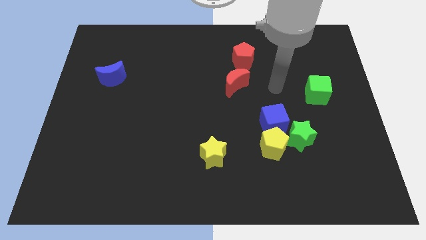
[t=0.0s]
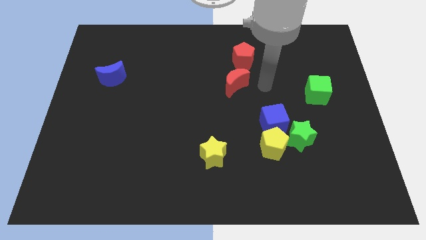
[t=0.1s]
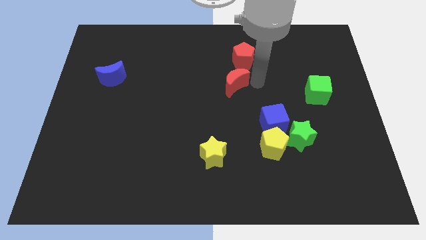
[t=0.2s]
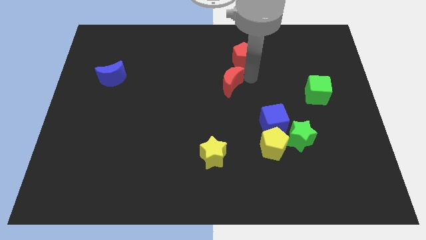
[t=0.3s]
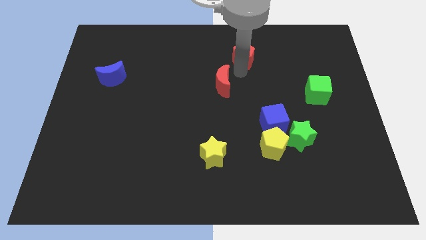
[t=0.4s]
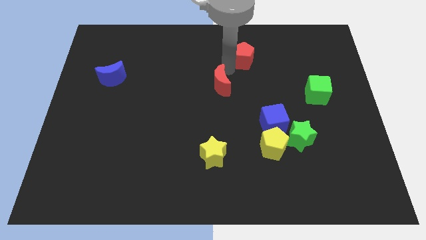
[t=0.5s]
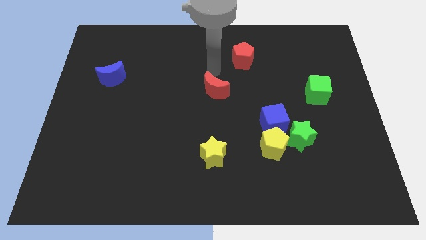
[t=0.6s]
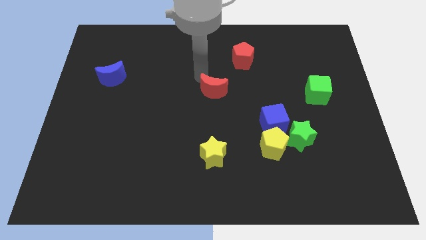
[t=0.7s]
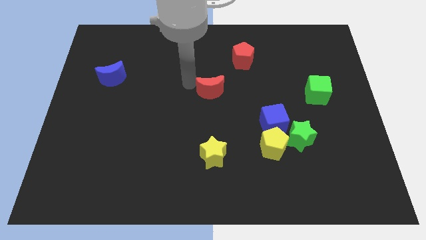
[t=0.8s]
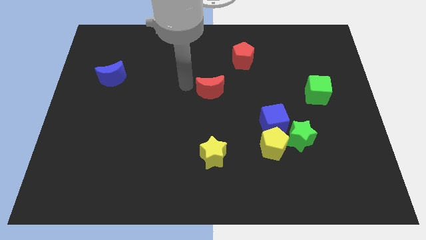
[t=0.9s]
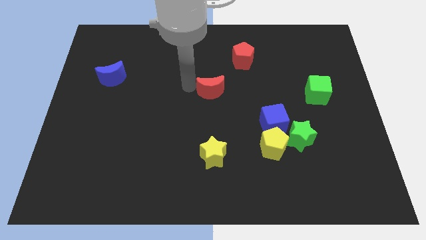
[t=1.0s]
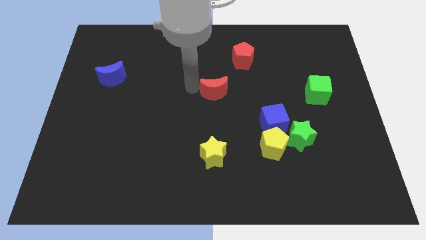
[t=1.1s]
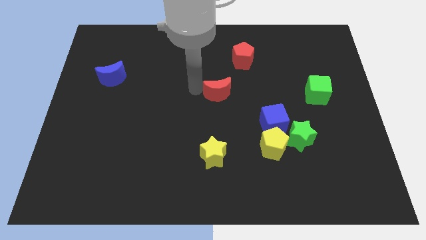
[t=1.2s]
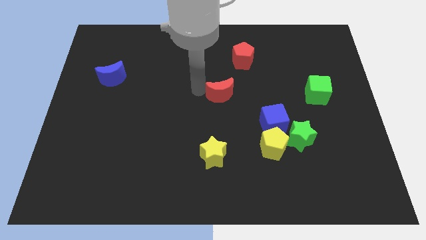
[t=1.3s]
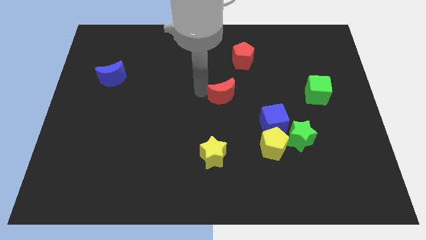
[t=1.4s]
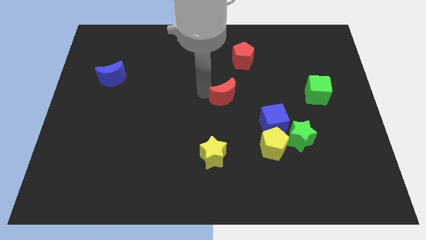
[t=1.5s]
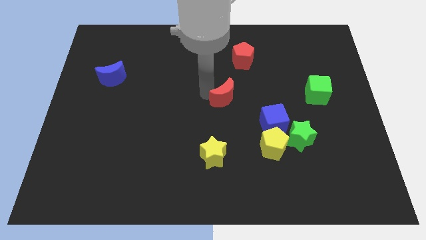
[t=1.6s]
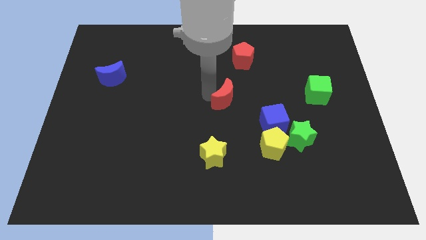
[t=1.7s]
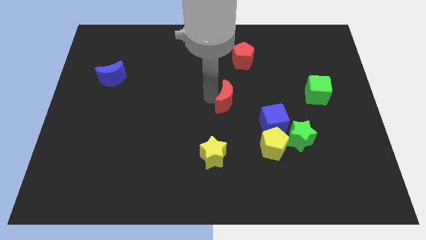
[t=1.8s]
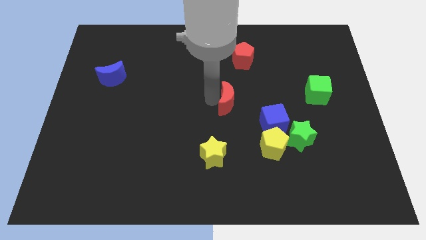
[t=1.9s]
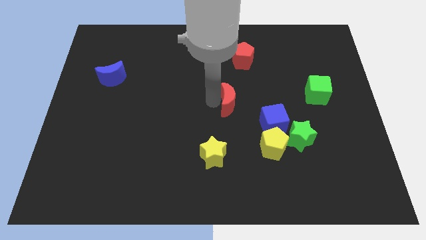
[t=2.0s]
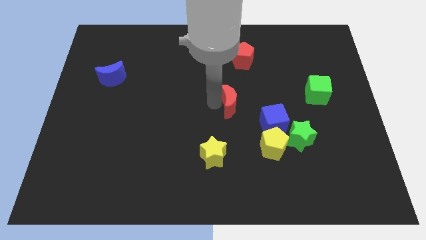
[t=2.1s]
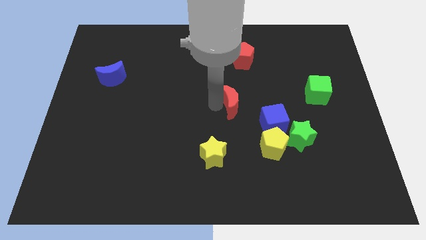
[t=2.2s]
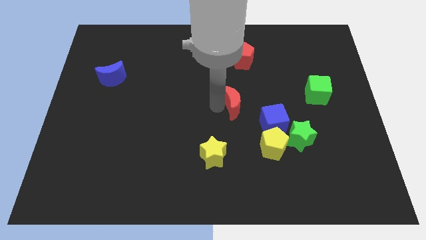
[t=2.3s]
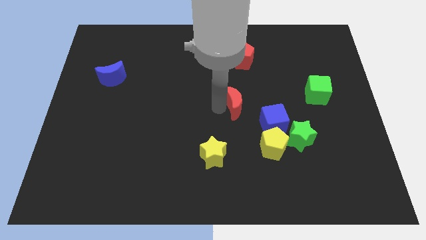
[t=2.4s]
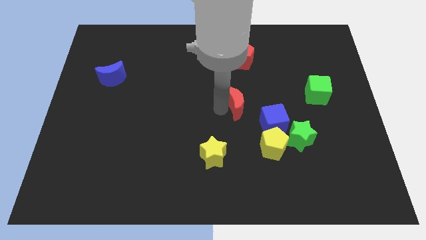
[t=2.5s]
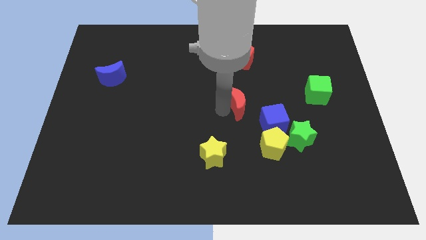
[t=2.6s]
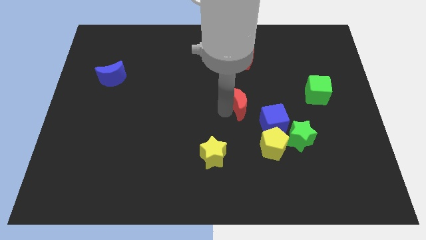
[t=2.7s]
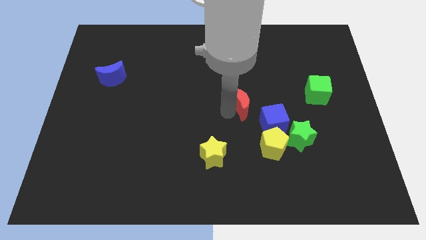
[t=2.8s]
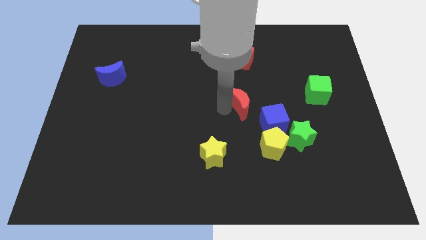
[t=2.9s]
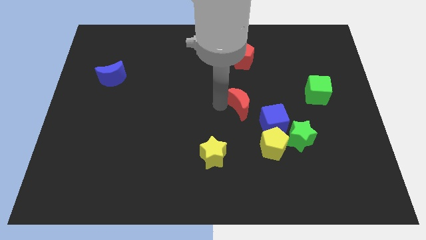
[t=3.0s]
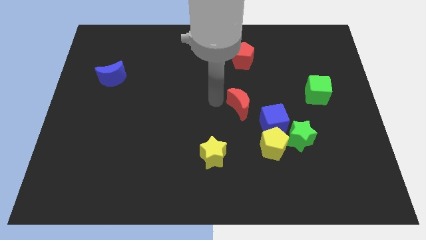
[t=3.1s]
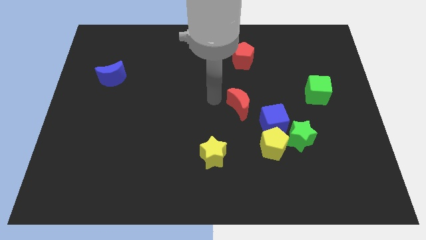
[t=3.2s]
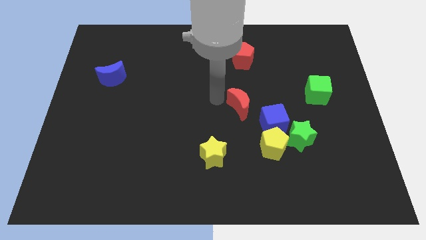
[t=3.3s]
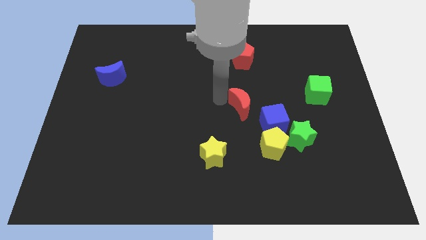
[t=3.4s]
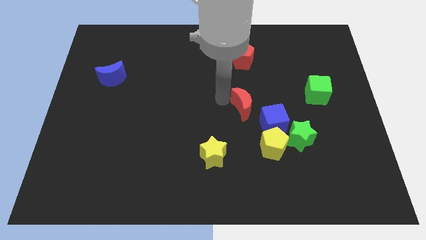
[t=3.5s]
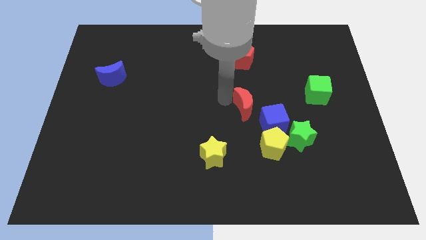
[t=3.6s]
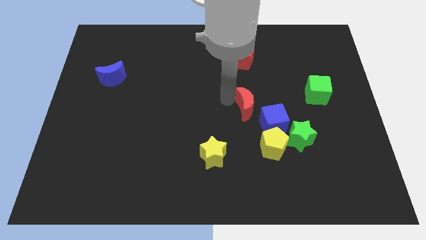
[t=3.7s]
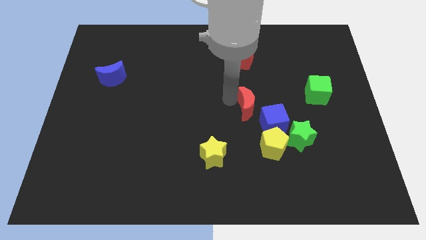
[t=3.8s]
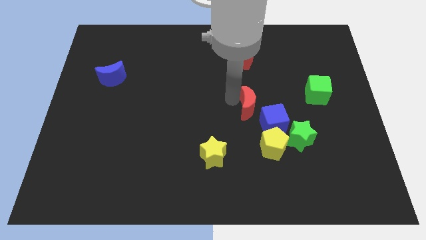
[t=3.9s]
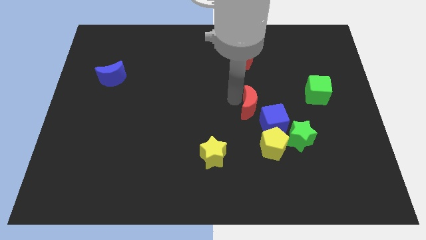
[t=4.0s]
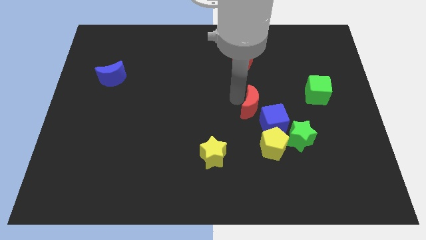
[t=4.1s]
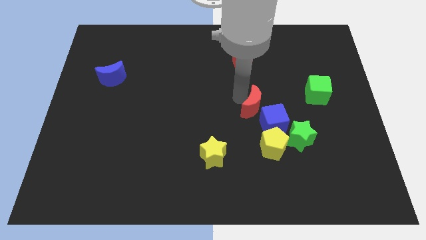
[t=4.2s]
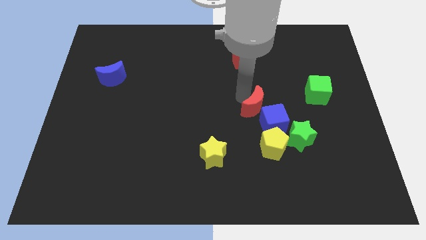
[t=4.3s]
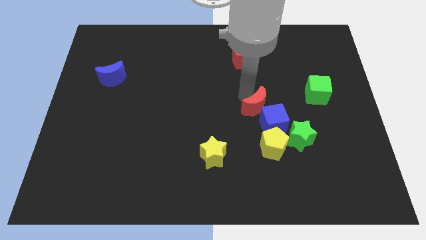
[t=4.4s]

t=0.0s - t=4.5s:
slide the red moon to the top left side of the green star

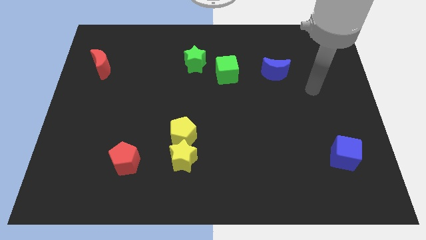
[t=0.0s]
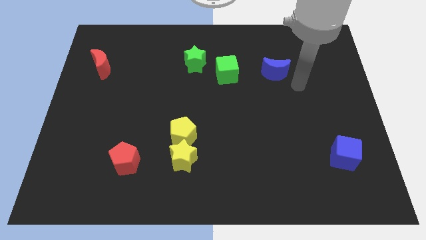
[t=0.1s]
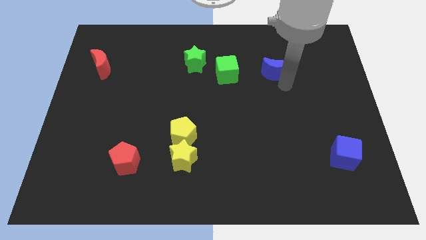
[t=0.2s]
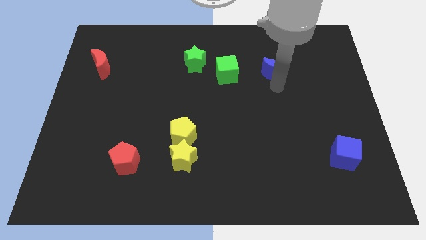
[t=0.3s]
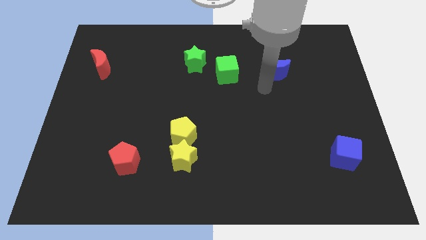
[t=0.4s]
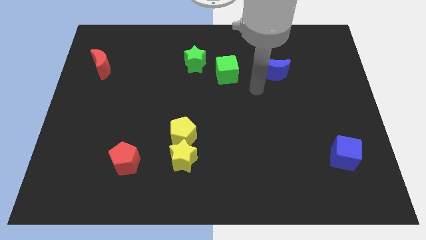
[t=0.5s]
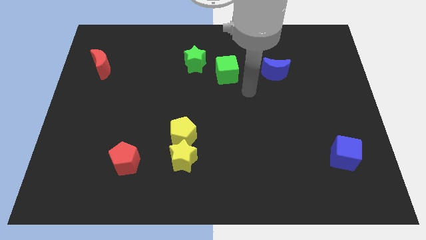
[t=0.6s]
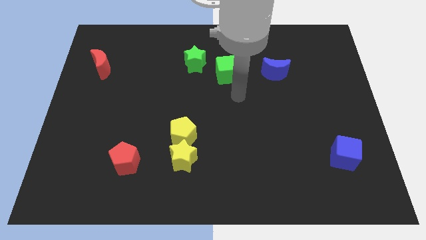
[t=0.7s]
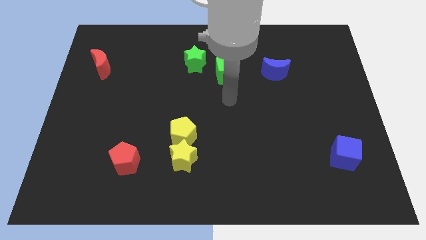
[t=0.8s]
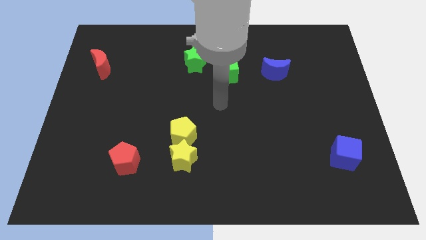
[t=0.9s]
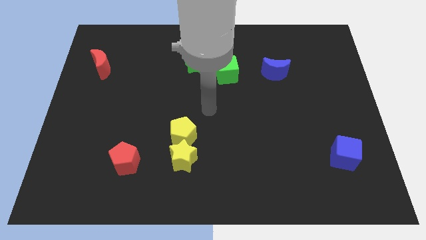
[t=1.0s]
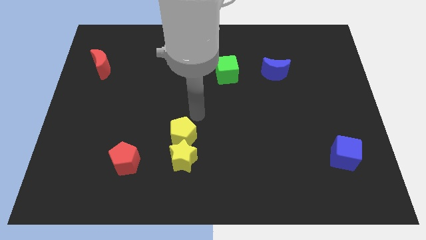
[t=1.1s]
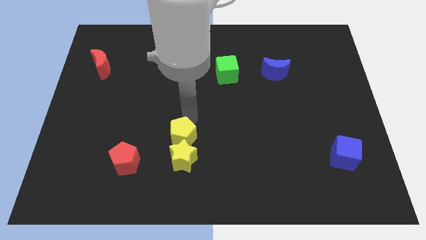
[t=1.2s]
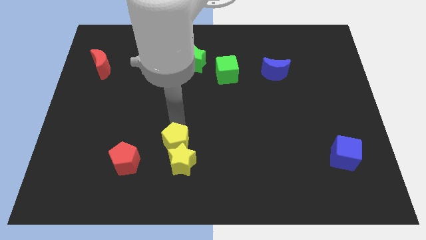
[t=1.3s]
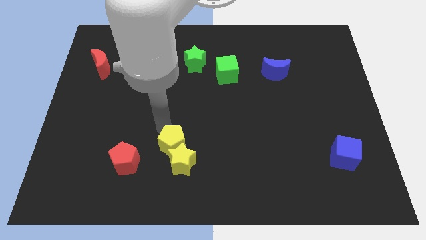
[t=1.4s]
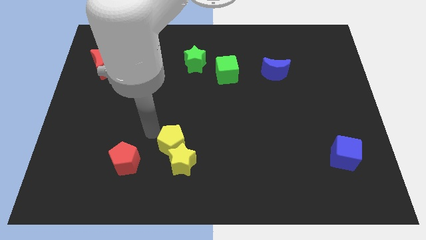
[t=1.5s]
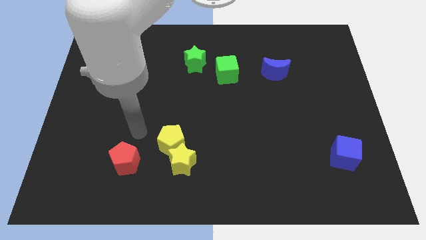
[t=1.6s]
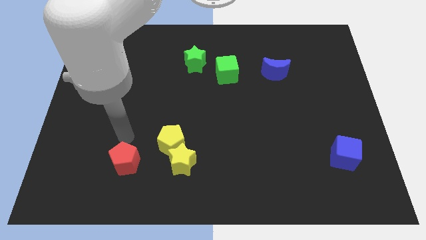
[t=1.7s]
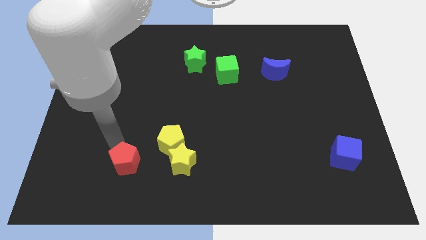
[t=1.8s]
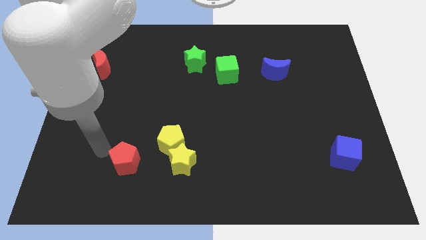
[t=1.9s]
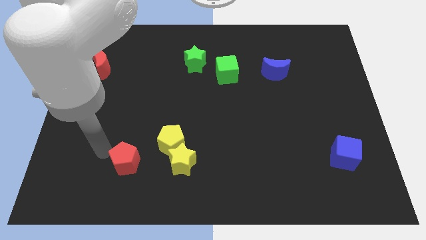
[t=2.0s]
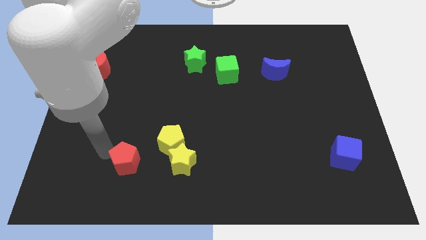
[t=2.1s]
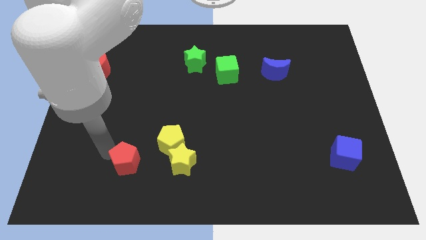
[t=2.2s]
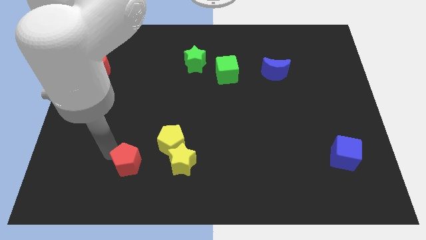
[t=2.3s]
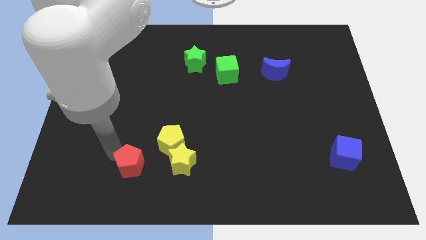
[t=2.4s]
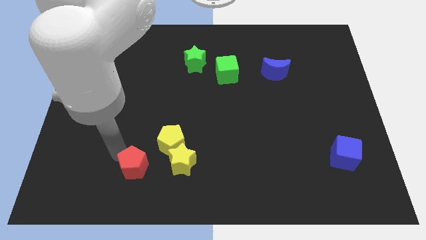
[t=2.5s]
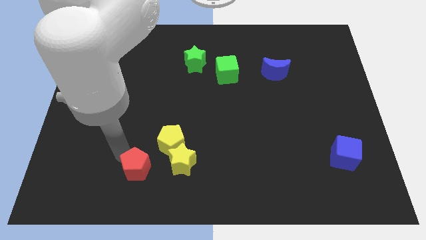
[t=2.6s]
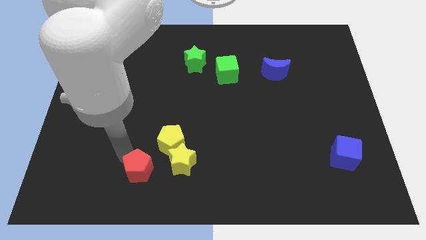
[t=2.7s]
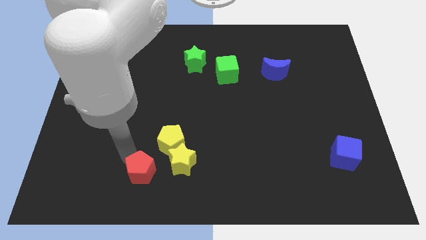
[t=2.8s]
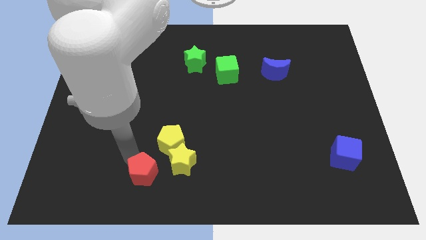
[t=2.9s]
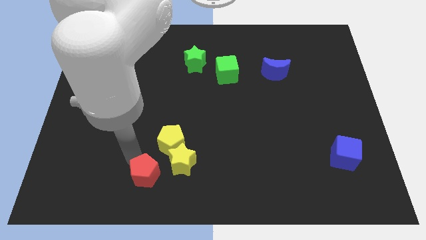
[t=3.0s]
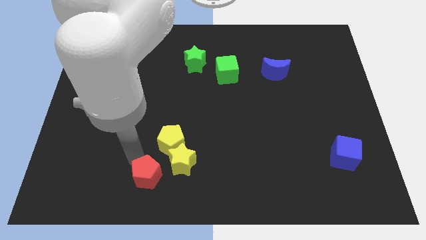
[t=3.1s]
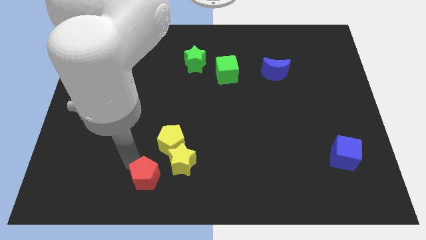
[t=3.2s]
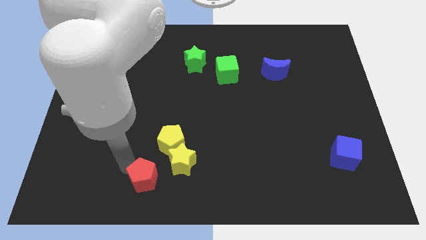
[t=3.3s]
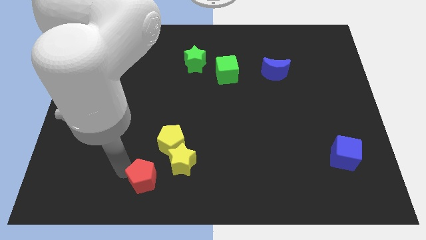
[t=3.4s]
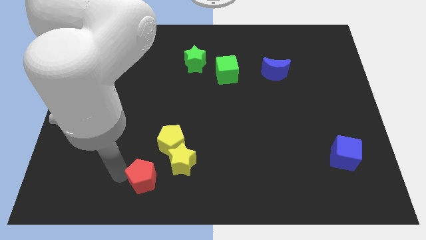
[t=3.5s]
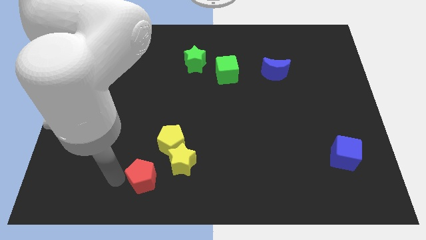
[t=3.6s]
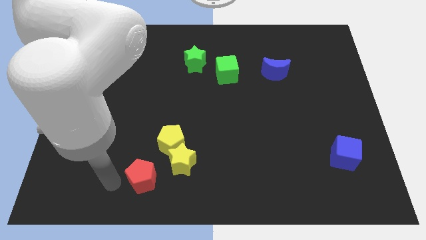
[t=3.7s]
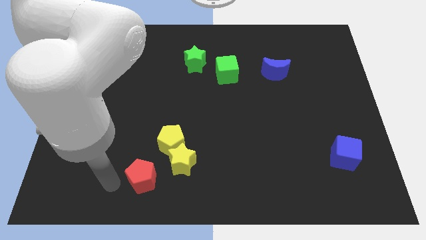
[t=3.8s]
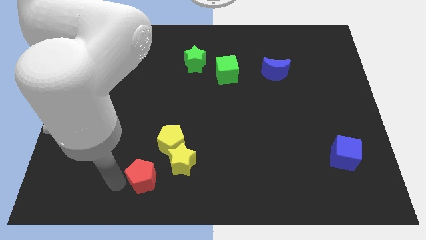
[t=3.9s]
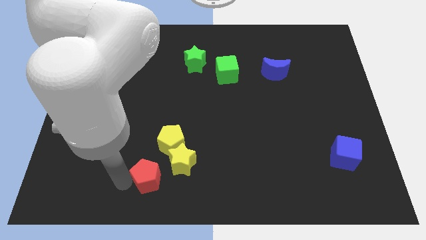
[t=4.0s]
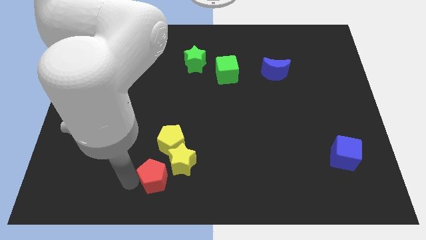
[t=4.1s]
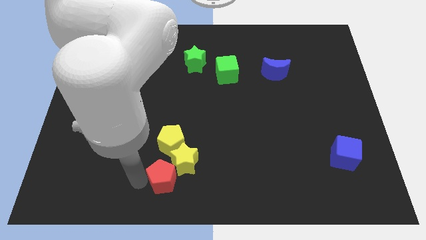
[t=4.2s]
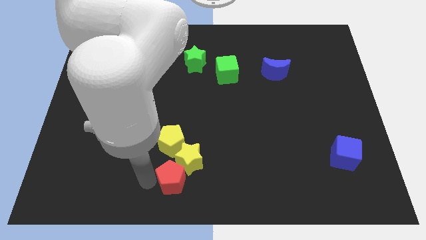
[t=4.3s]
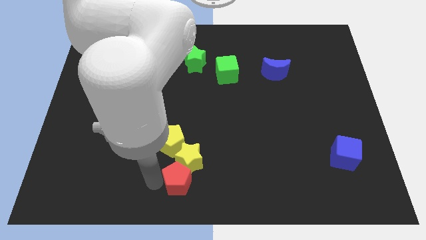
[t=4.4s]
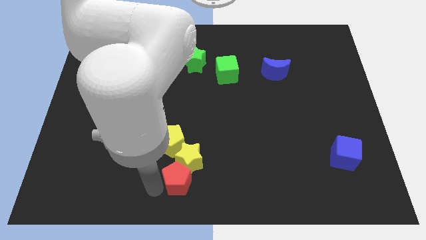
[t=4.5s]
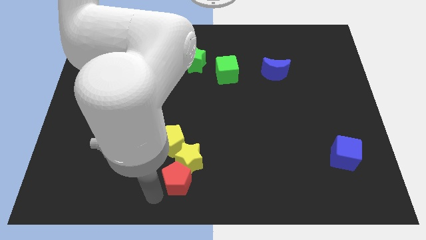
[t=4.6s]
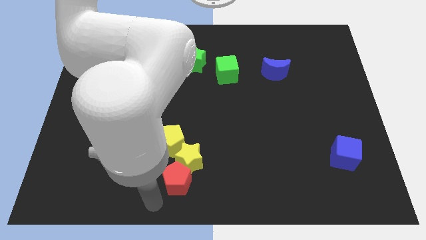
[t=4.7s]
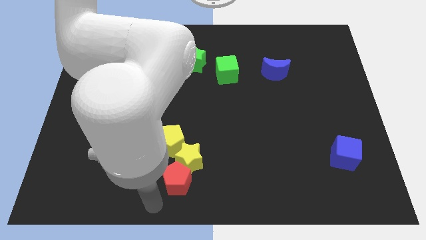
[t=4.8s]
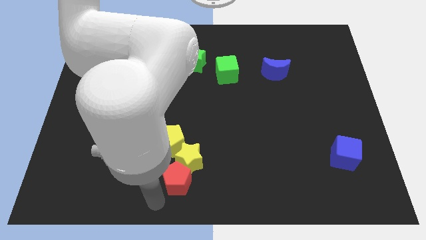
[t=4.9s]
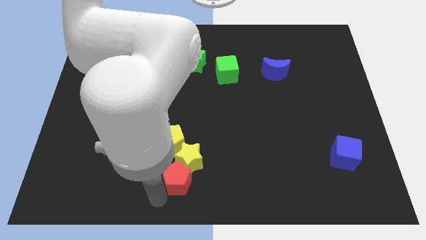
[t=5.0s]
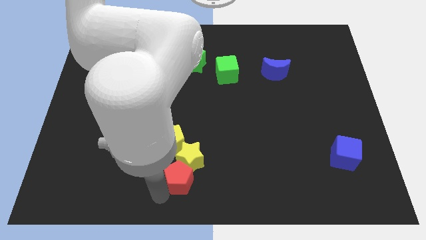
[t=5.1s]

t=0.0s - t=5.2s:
put the red pentagon to the bottom right of the yellow pentagon
